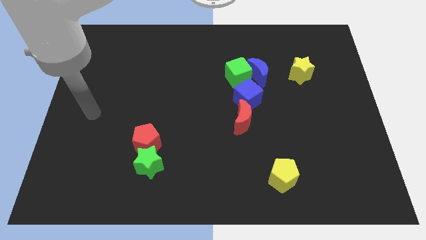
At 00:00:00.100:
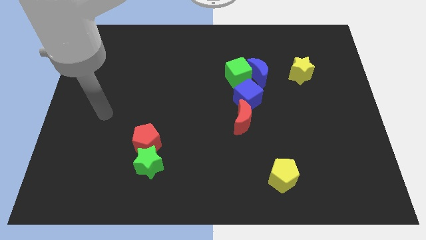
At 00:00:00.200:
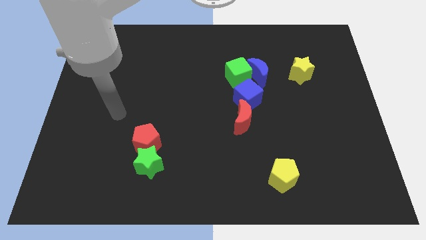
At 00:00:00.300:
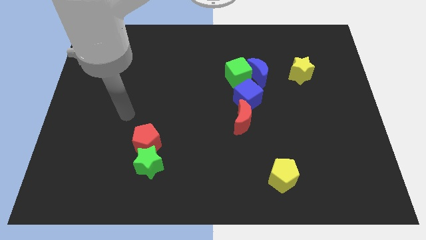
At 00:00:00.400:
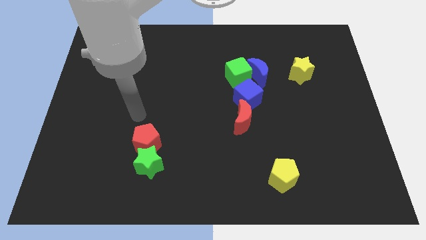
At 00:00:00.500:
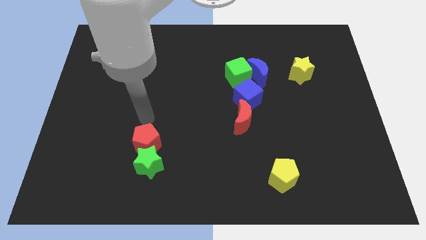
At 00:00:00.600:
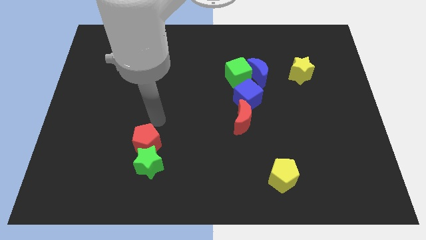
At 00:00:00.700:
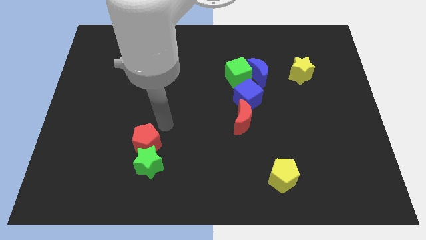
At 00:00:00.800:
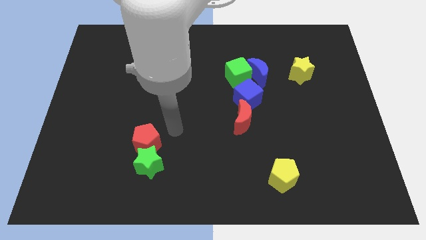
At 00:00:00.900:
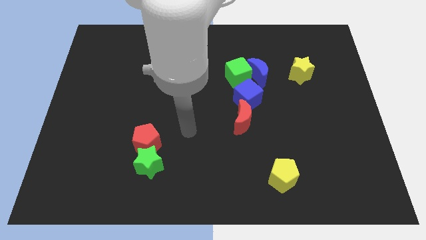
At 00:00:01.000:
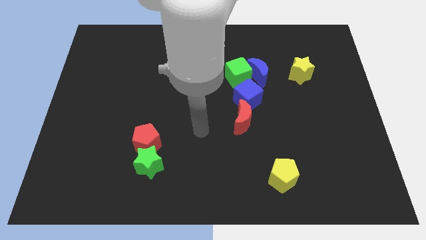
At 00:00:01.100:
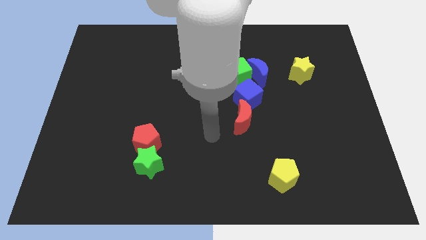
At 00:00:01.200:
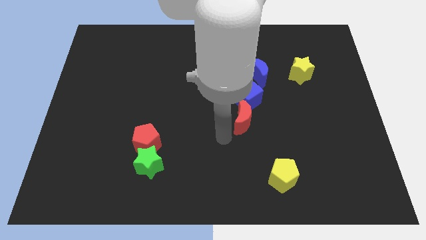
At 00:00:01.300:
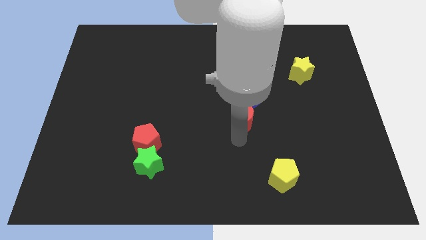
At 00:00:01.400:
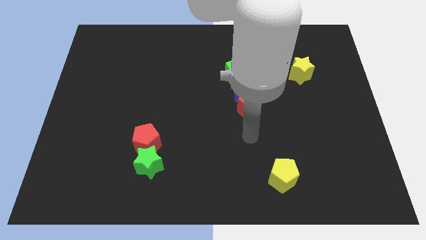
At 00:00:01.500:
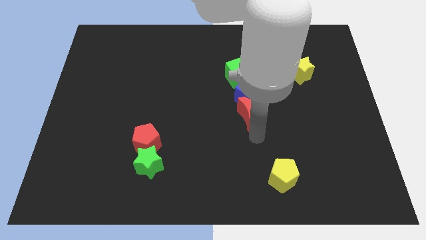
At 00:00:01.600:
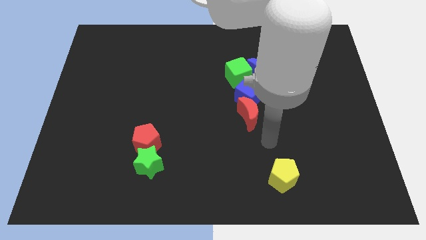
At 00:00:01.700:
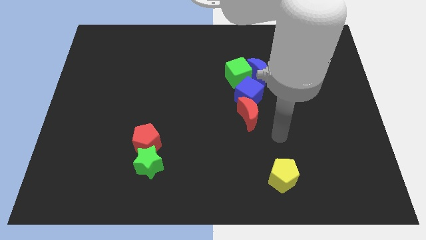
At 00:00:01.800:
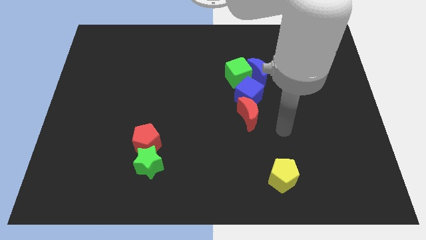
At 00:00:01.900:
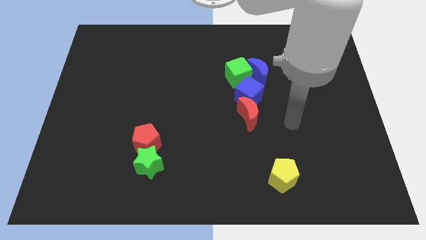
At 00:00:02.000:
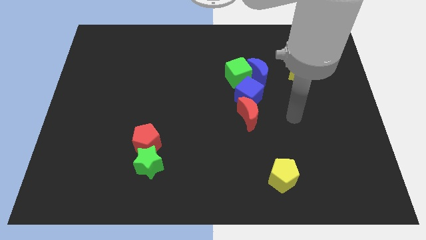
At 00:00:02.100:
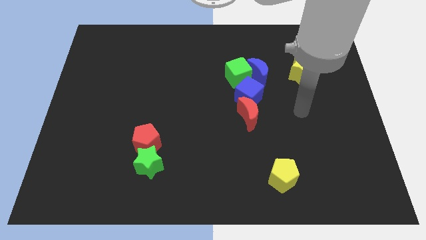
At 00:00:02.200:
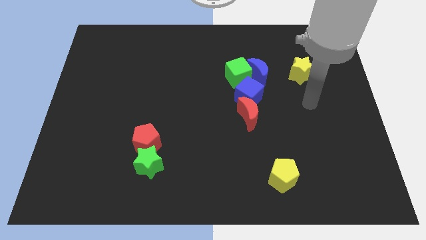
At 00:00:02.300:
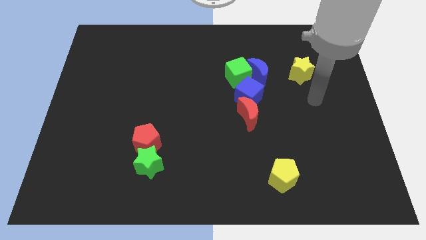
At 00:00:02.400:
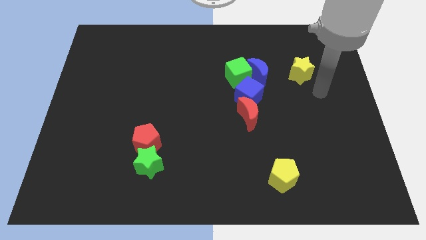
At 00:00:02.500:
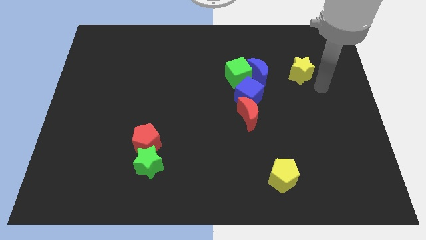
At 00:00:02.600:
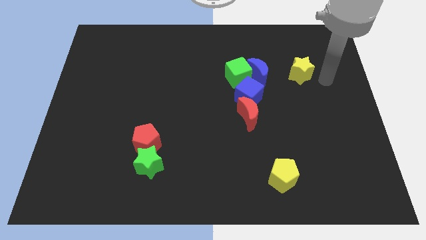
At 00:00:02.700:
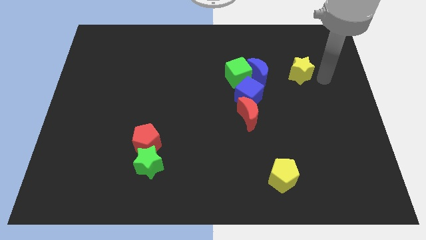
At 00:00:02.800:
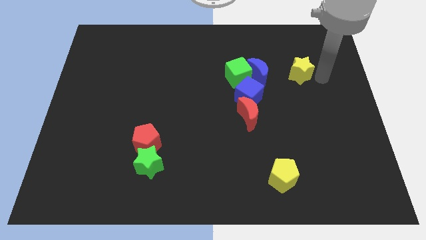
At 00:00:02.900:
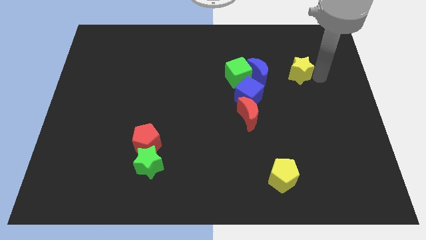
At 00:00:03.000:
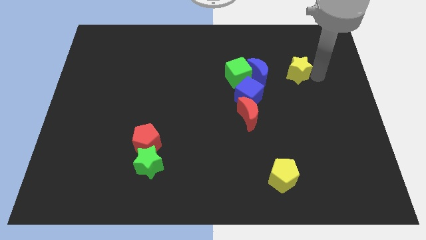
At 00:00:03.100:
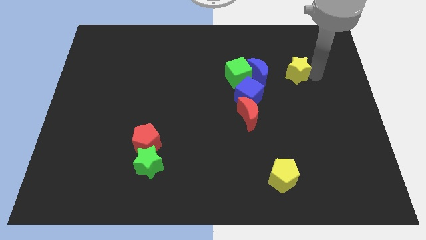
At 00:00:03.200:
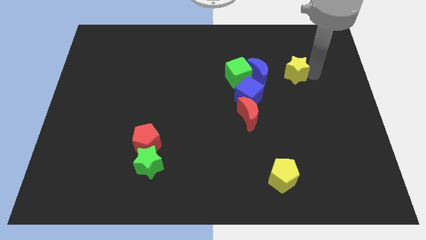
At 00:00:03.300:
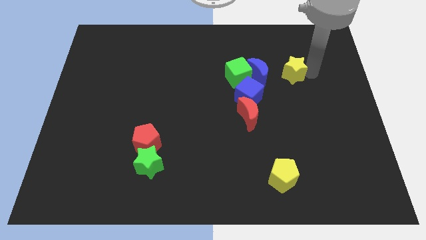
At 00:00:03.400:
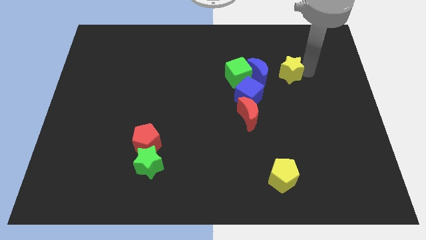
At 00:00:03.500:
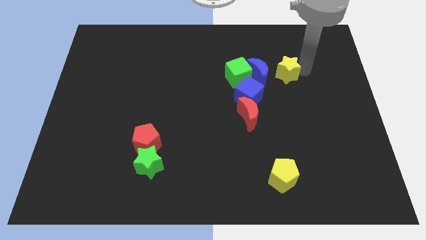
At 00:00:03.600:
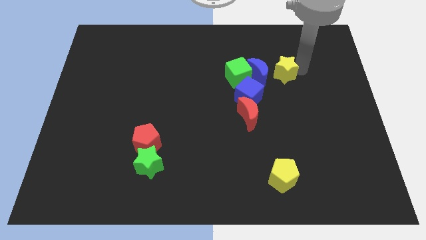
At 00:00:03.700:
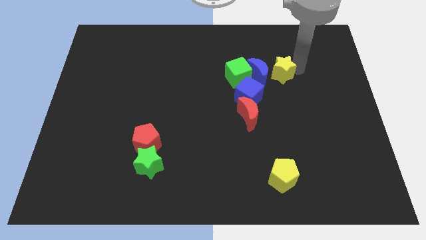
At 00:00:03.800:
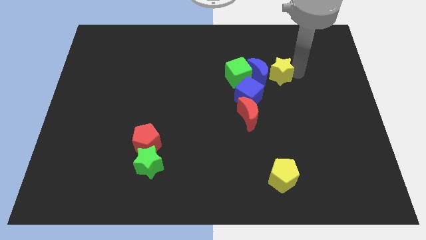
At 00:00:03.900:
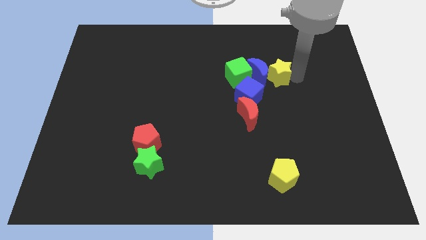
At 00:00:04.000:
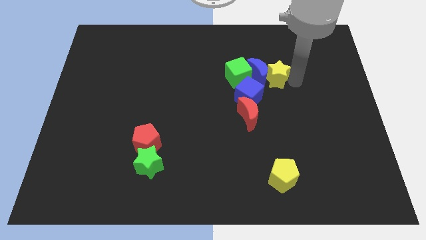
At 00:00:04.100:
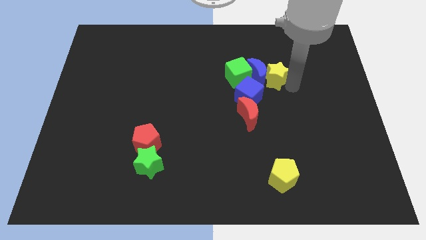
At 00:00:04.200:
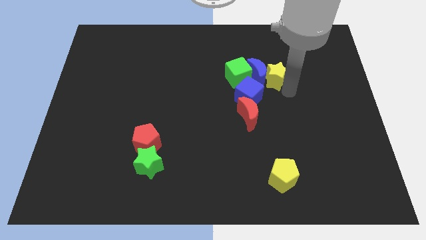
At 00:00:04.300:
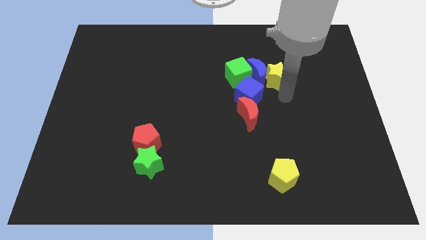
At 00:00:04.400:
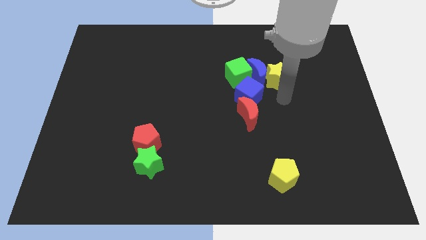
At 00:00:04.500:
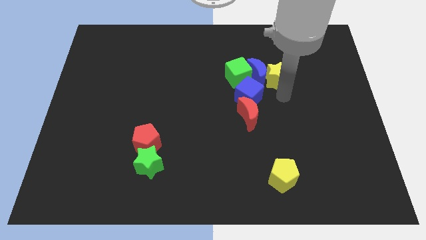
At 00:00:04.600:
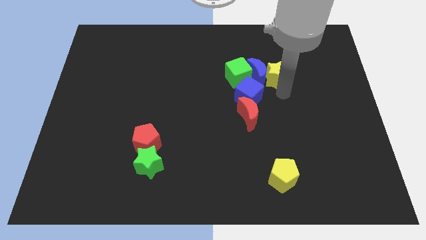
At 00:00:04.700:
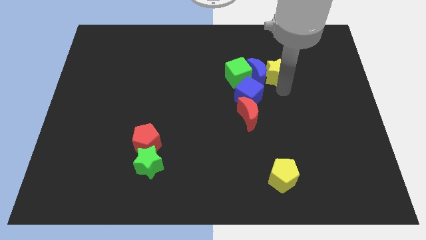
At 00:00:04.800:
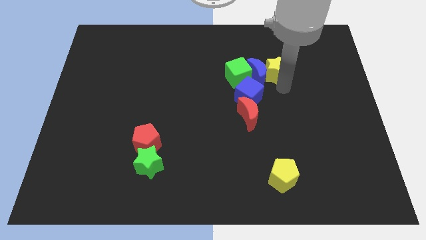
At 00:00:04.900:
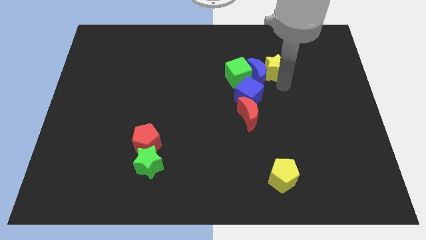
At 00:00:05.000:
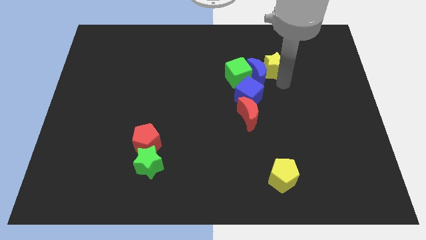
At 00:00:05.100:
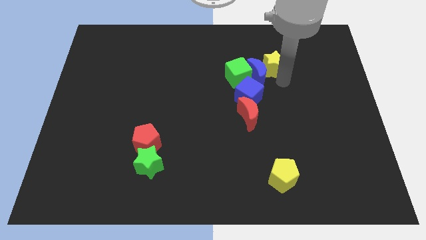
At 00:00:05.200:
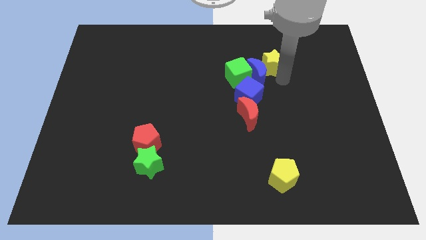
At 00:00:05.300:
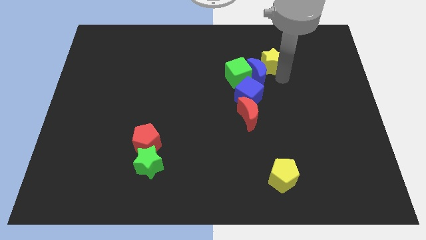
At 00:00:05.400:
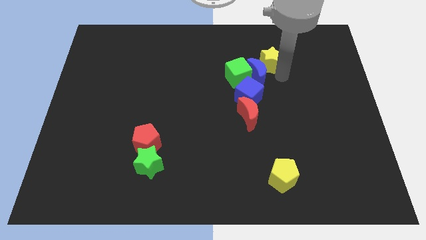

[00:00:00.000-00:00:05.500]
slightly slide the yellow star left

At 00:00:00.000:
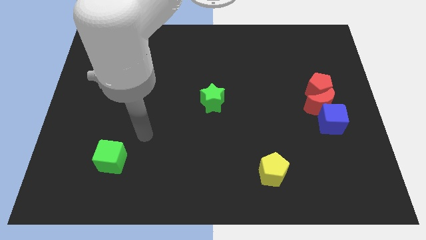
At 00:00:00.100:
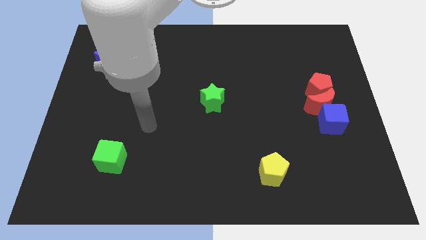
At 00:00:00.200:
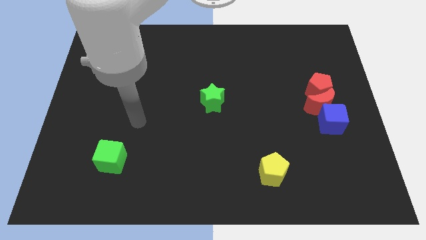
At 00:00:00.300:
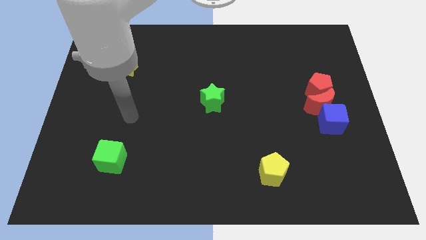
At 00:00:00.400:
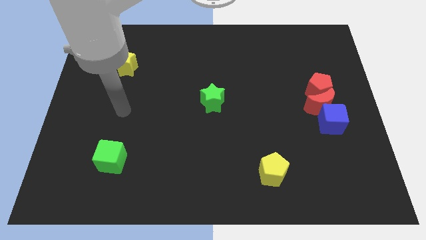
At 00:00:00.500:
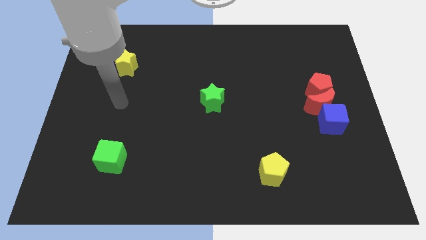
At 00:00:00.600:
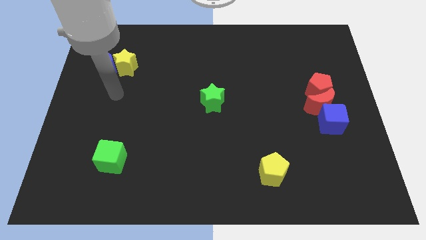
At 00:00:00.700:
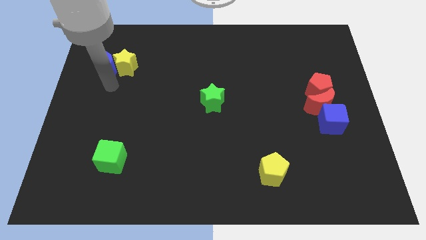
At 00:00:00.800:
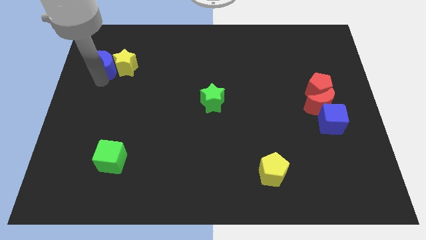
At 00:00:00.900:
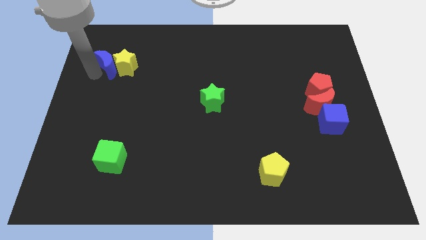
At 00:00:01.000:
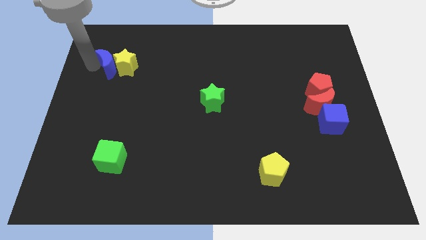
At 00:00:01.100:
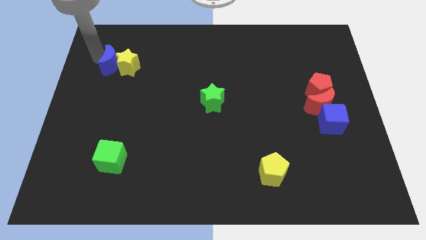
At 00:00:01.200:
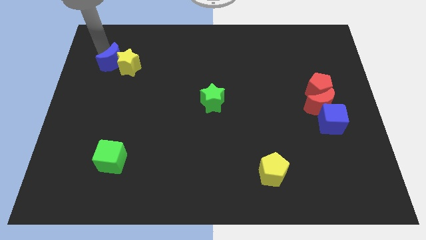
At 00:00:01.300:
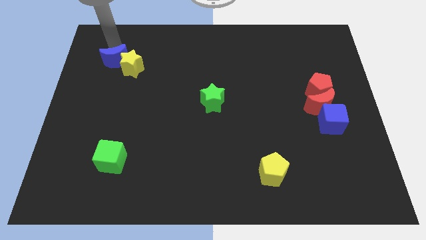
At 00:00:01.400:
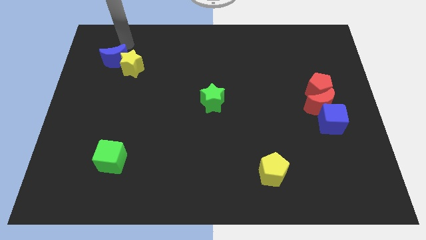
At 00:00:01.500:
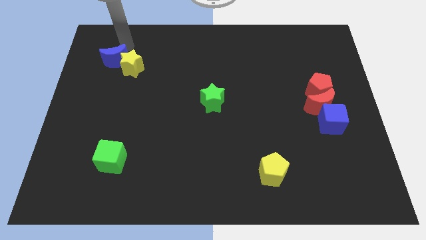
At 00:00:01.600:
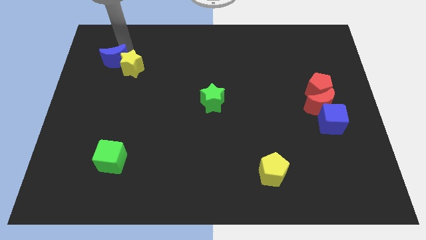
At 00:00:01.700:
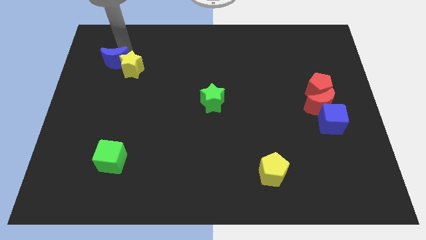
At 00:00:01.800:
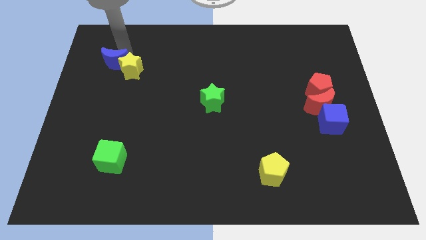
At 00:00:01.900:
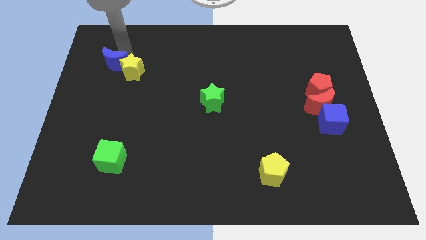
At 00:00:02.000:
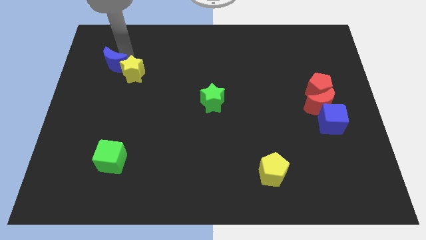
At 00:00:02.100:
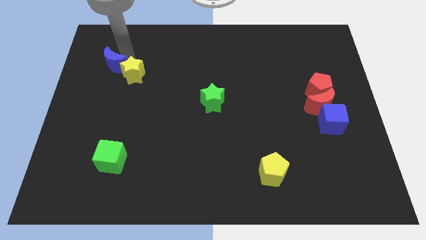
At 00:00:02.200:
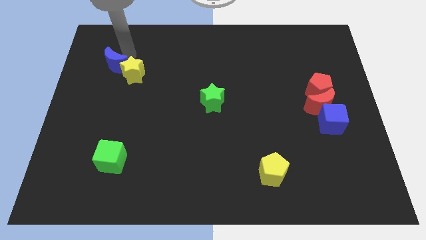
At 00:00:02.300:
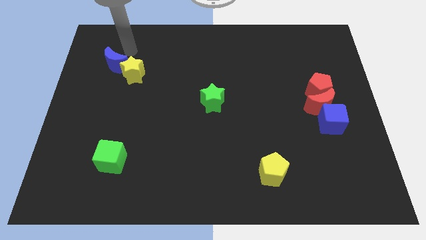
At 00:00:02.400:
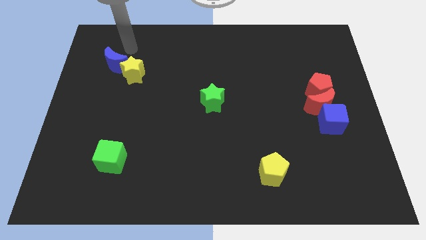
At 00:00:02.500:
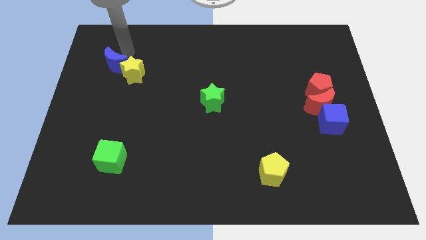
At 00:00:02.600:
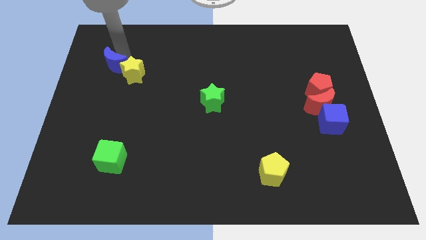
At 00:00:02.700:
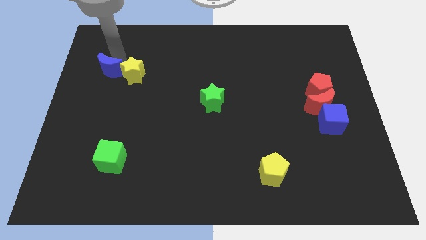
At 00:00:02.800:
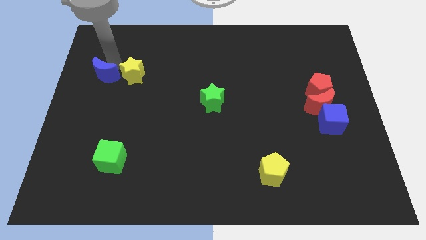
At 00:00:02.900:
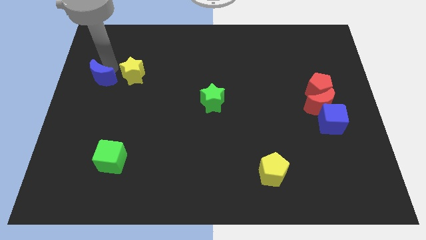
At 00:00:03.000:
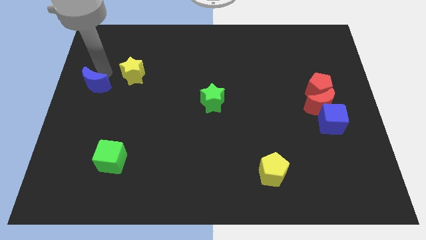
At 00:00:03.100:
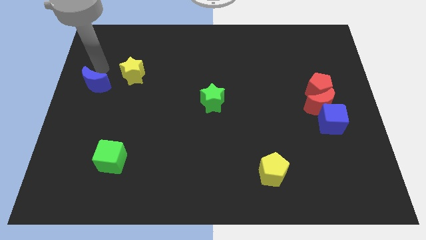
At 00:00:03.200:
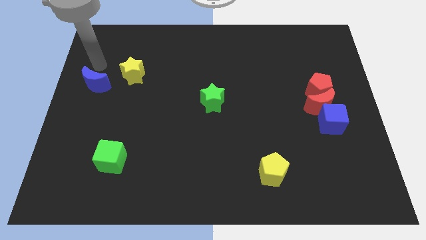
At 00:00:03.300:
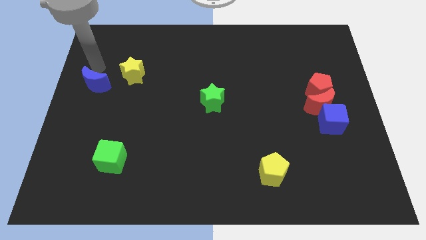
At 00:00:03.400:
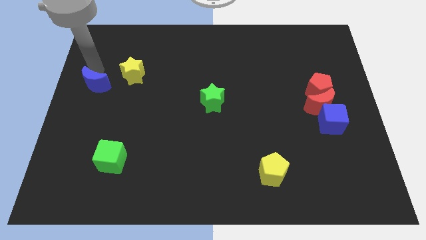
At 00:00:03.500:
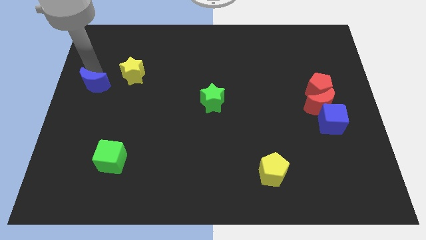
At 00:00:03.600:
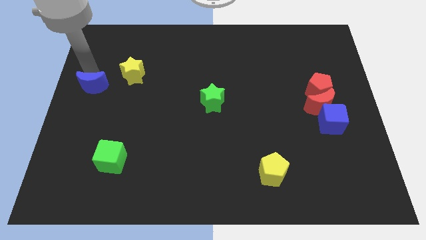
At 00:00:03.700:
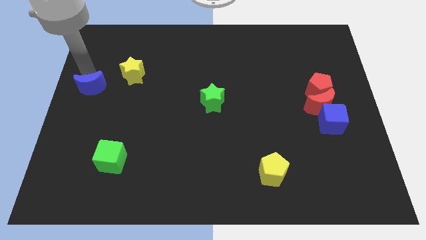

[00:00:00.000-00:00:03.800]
slightly slide the blue moon down
